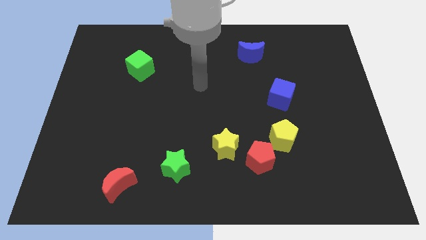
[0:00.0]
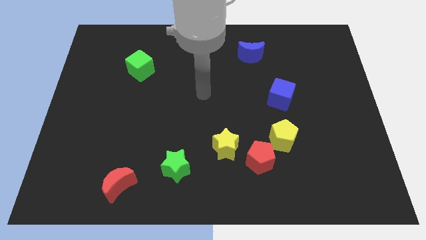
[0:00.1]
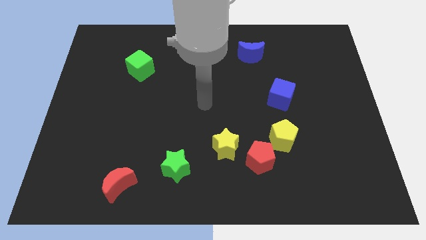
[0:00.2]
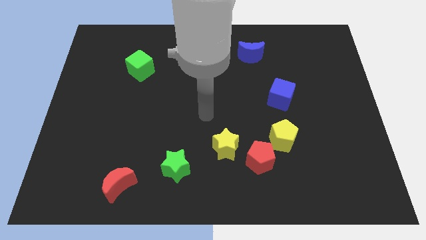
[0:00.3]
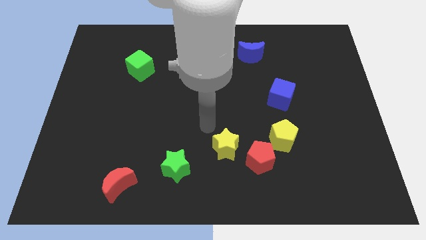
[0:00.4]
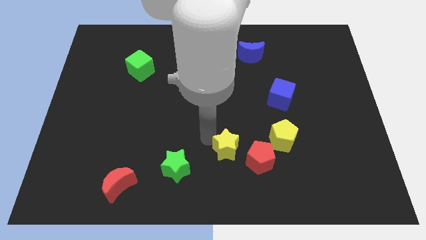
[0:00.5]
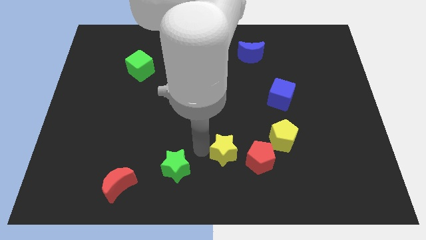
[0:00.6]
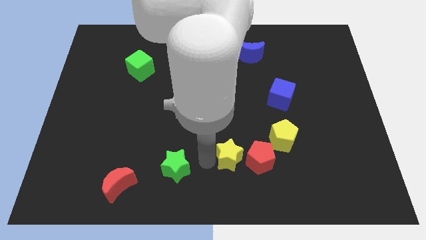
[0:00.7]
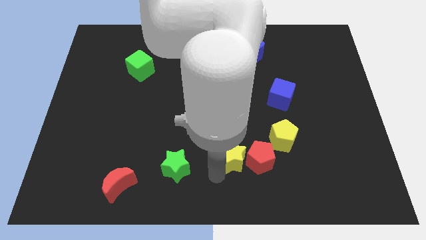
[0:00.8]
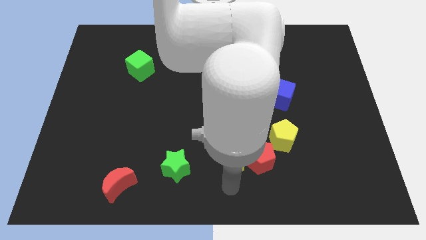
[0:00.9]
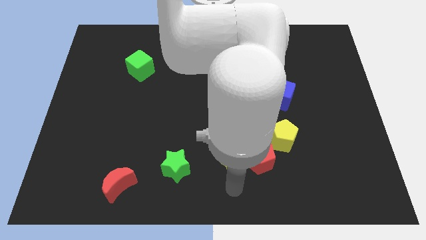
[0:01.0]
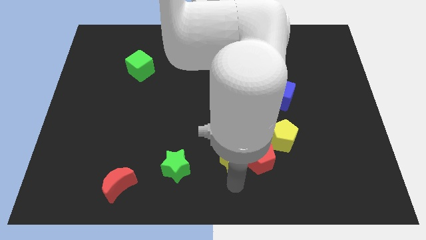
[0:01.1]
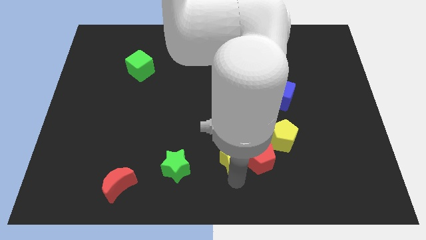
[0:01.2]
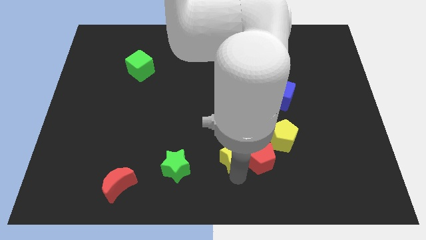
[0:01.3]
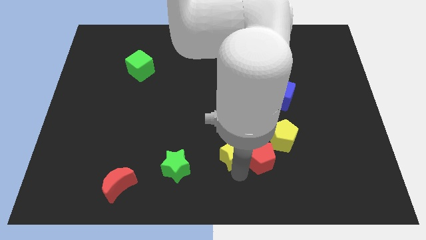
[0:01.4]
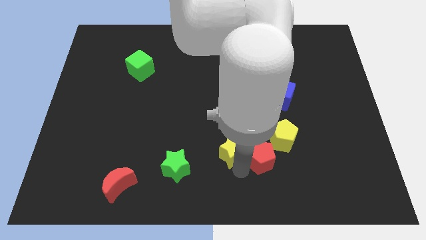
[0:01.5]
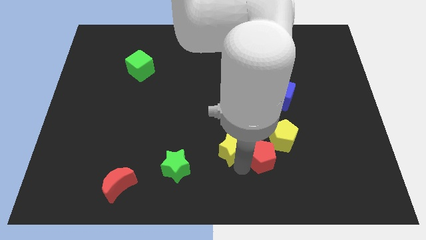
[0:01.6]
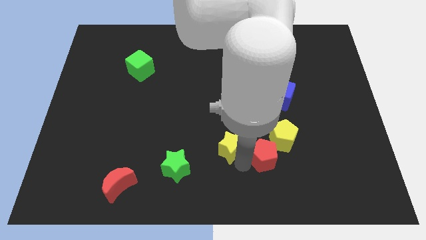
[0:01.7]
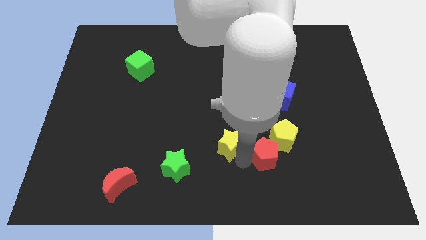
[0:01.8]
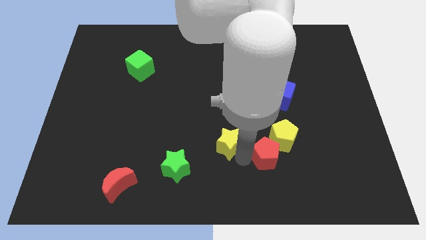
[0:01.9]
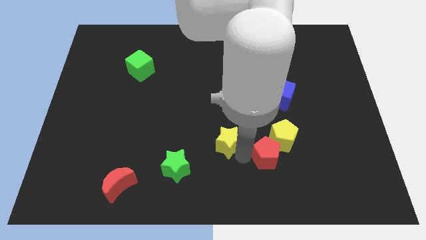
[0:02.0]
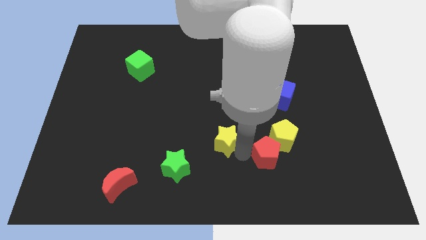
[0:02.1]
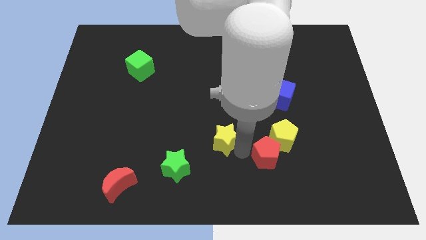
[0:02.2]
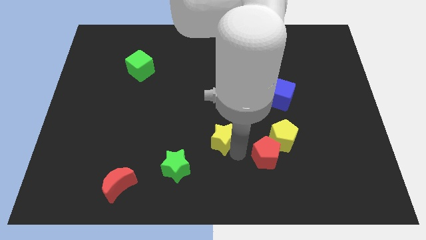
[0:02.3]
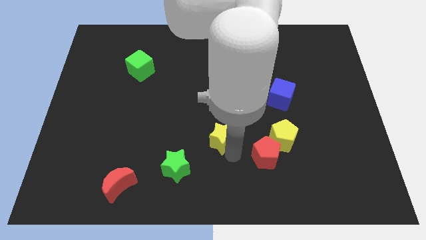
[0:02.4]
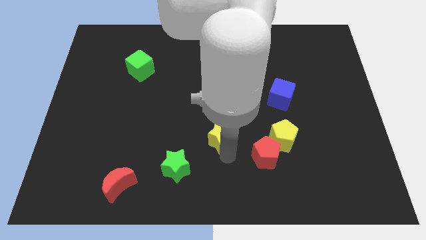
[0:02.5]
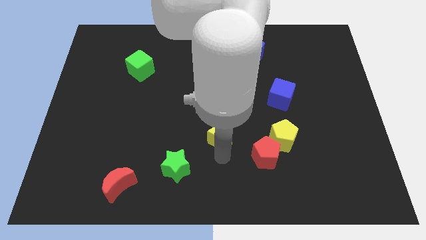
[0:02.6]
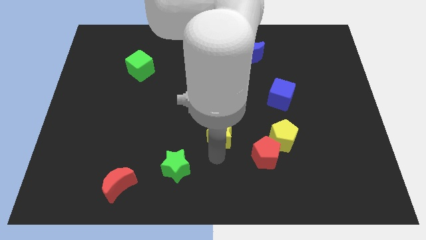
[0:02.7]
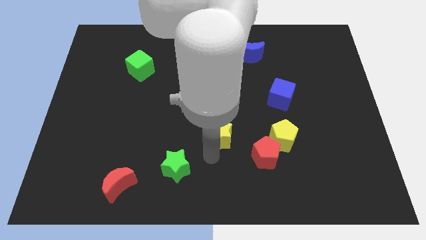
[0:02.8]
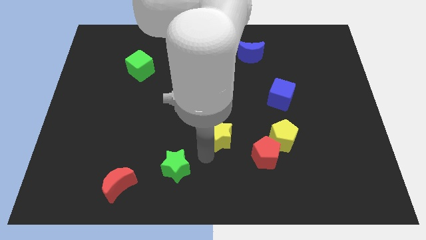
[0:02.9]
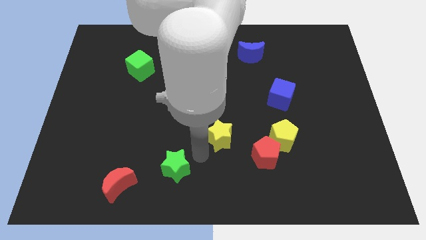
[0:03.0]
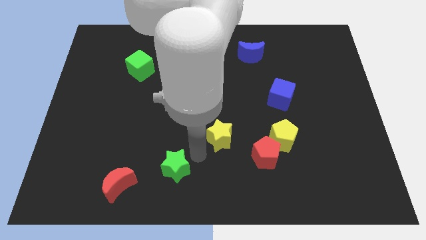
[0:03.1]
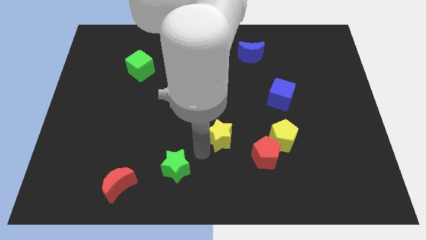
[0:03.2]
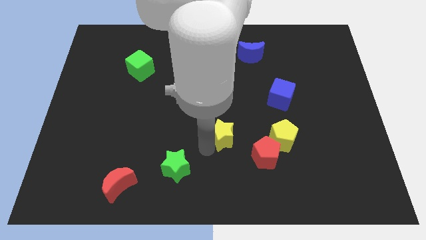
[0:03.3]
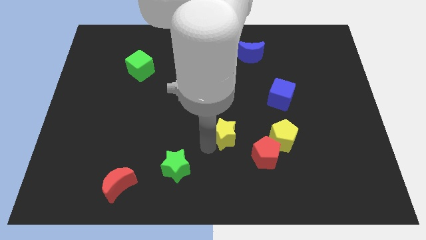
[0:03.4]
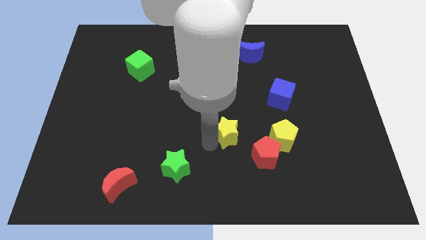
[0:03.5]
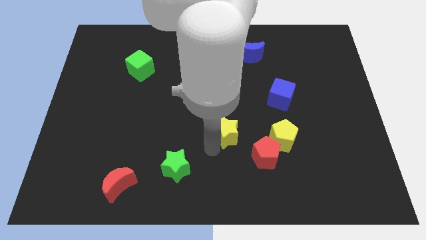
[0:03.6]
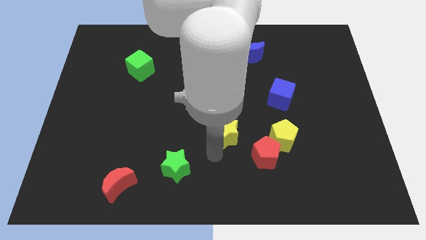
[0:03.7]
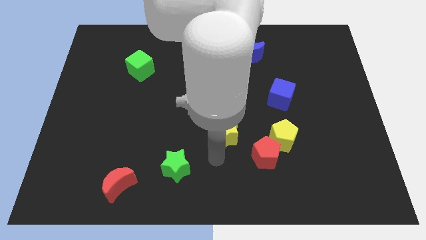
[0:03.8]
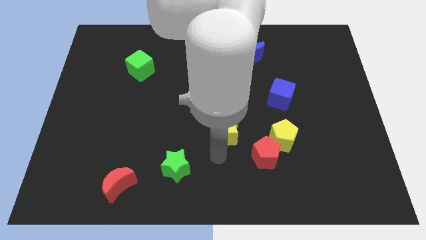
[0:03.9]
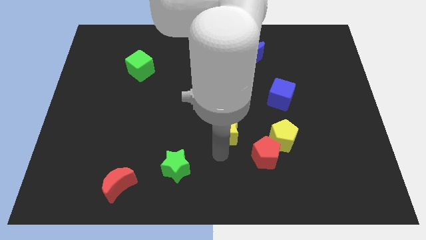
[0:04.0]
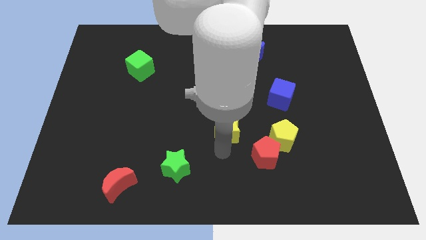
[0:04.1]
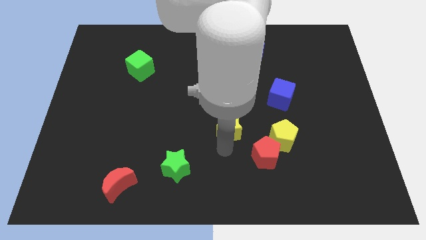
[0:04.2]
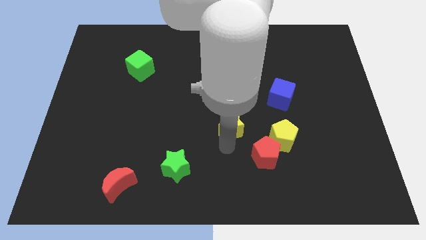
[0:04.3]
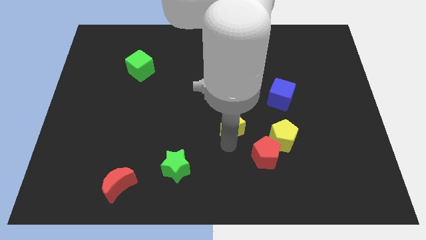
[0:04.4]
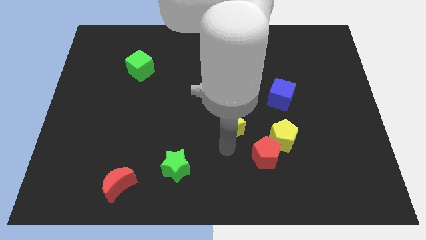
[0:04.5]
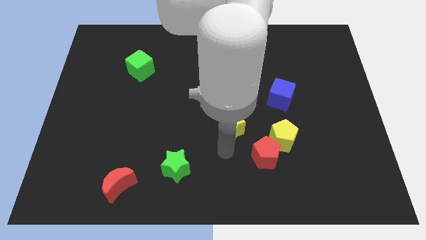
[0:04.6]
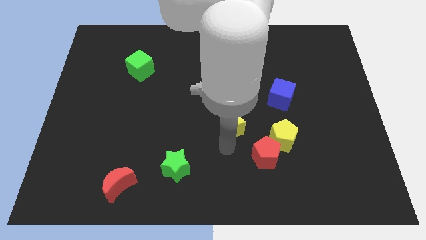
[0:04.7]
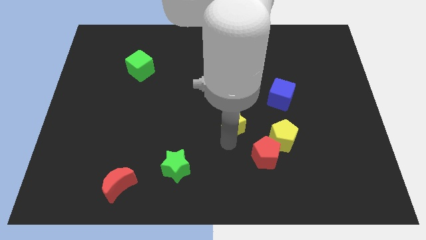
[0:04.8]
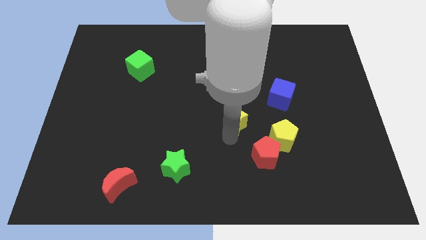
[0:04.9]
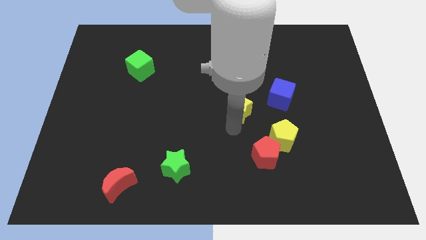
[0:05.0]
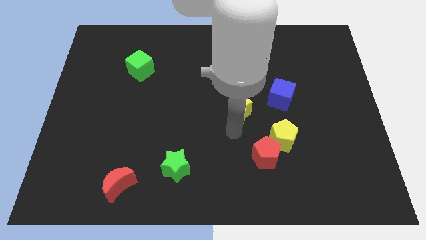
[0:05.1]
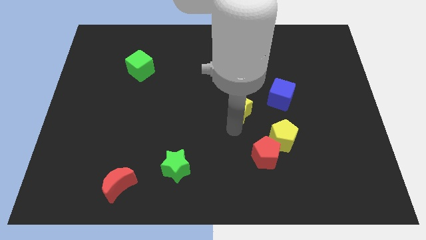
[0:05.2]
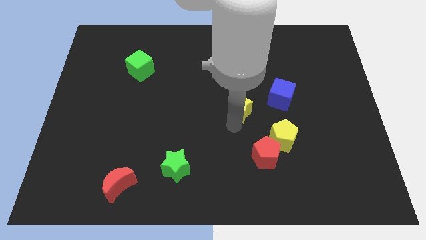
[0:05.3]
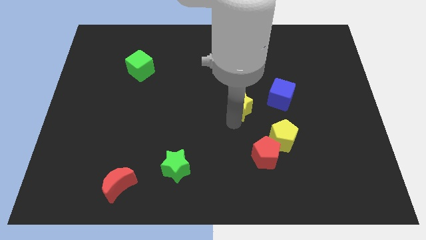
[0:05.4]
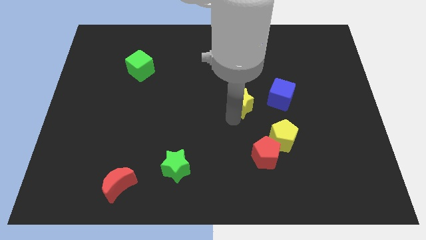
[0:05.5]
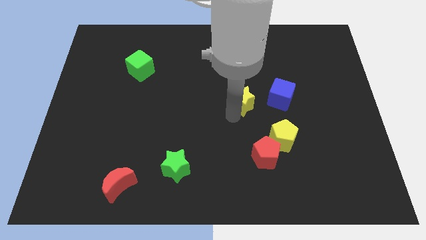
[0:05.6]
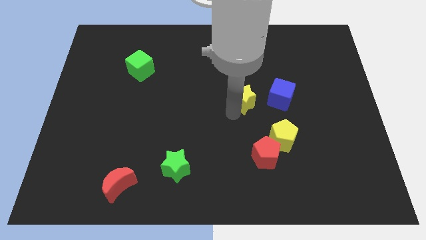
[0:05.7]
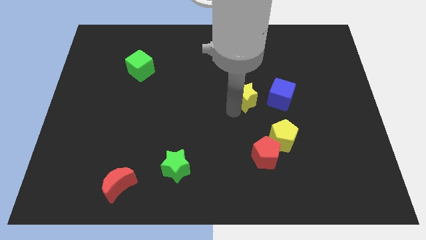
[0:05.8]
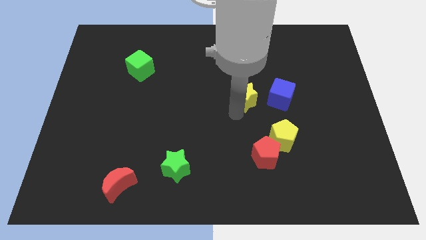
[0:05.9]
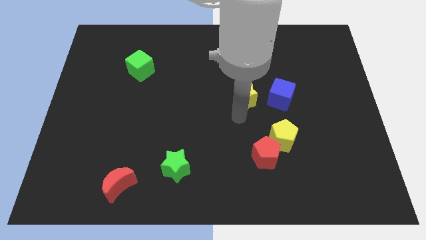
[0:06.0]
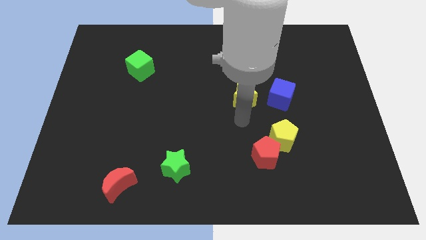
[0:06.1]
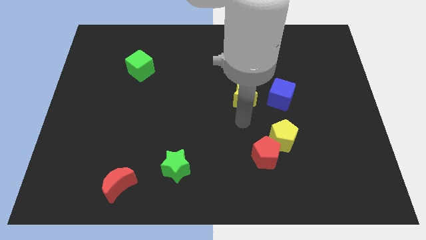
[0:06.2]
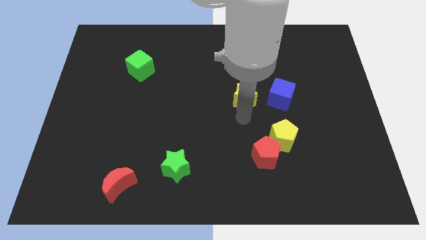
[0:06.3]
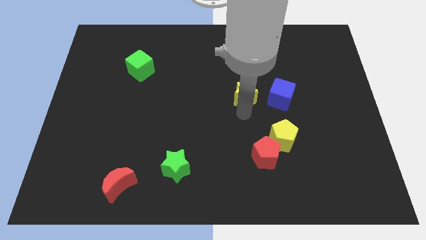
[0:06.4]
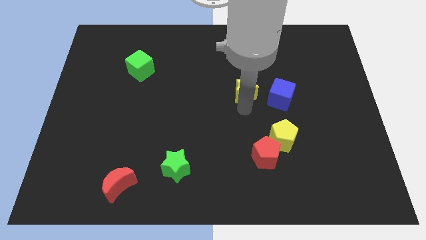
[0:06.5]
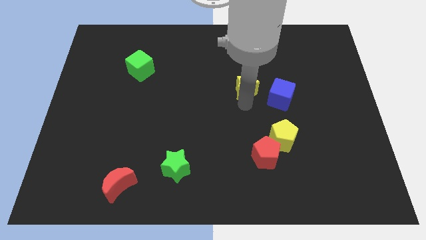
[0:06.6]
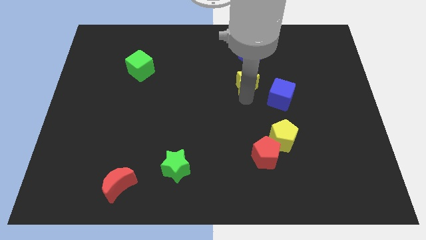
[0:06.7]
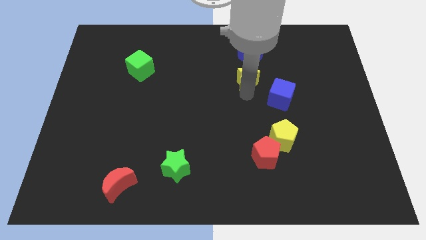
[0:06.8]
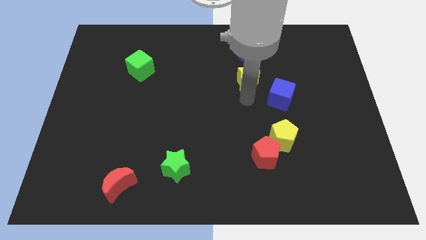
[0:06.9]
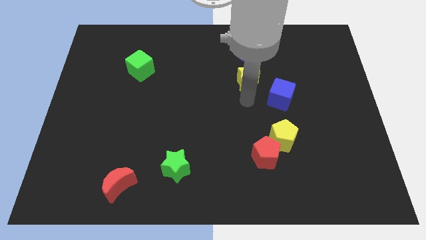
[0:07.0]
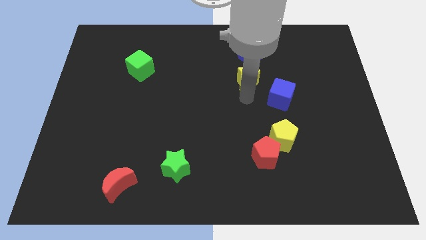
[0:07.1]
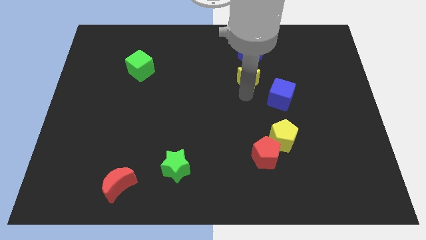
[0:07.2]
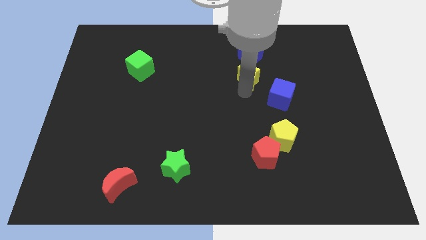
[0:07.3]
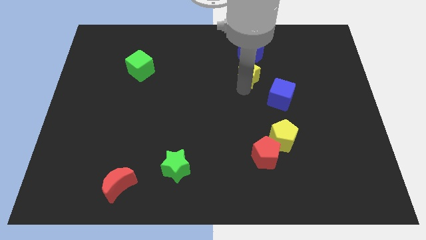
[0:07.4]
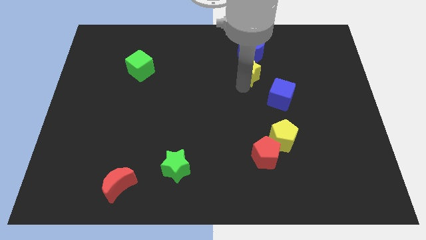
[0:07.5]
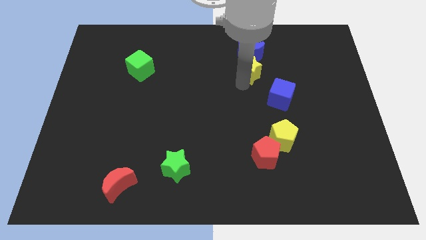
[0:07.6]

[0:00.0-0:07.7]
move the yellow star close to the blue moon
